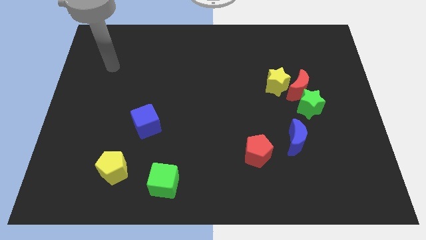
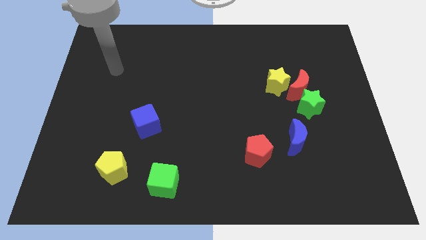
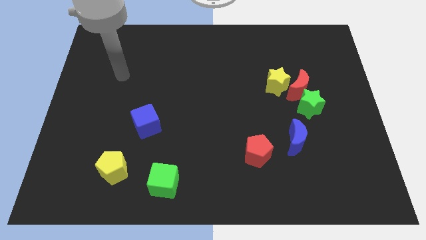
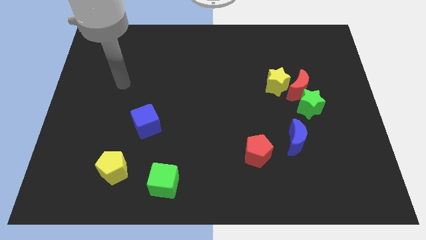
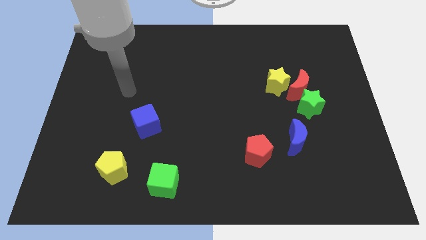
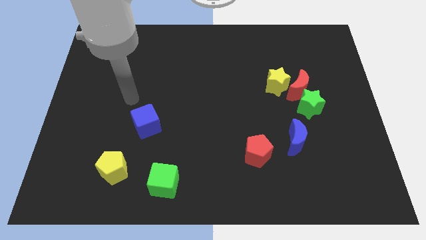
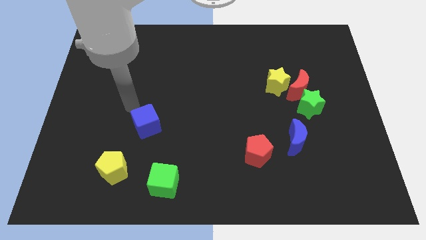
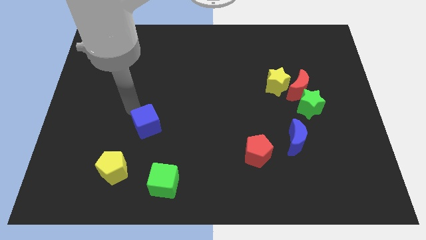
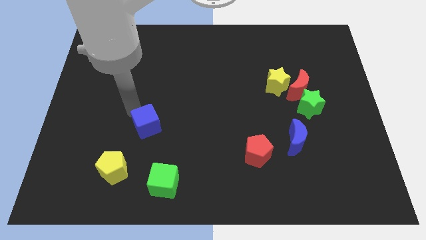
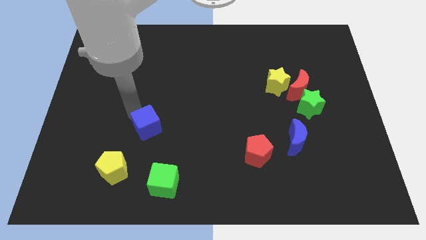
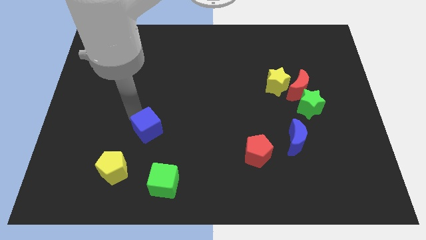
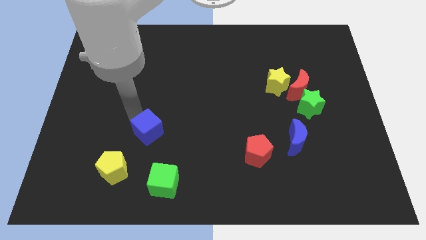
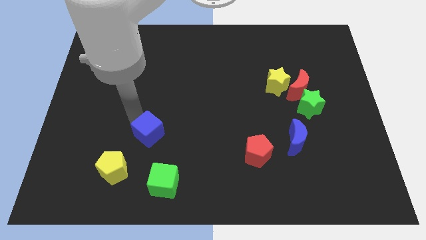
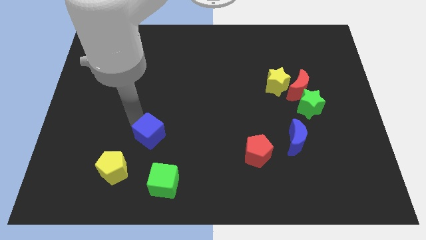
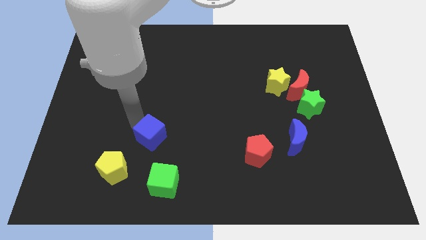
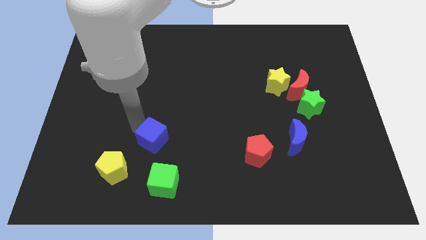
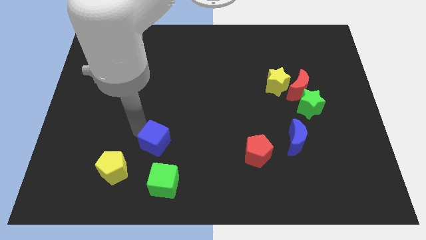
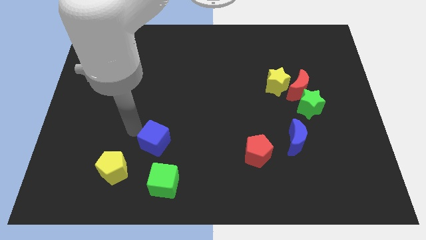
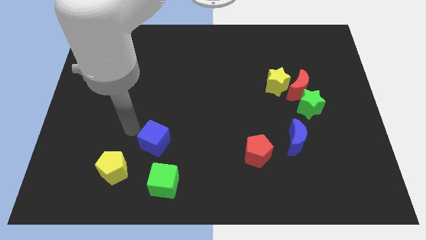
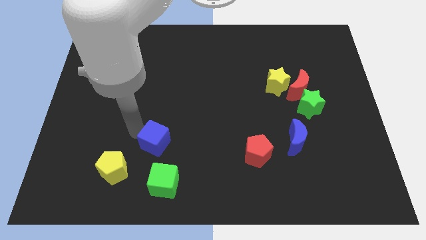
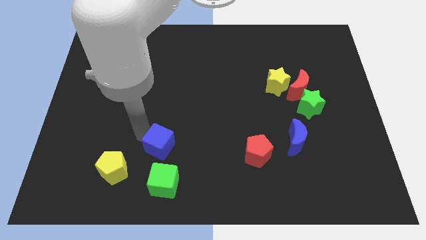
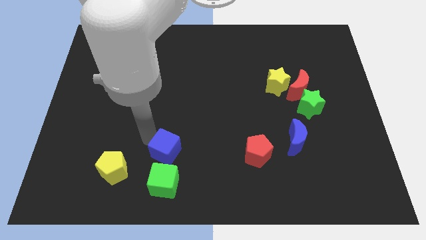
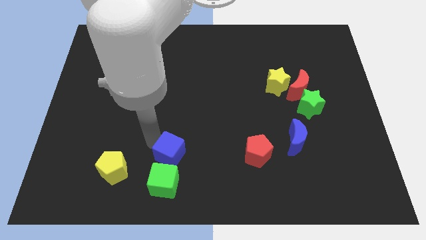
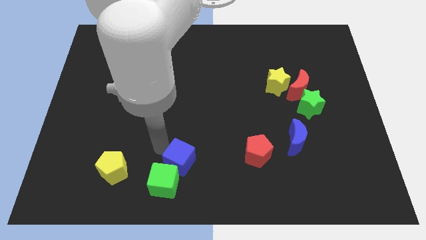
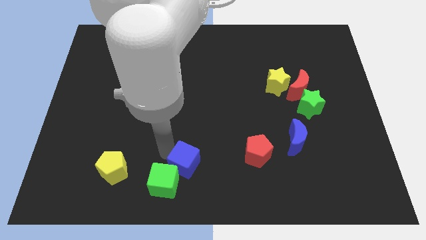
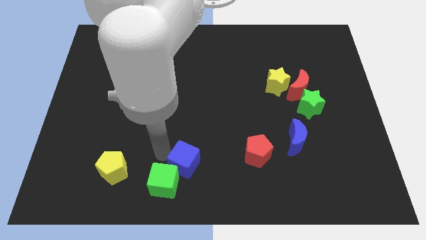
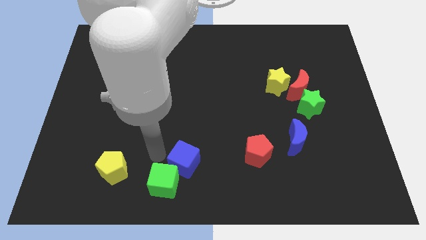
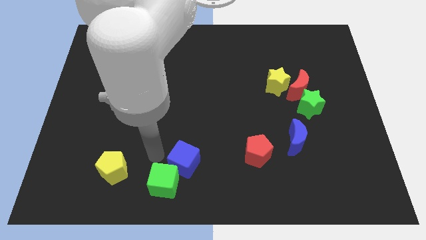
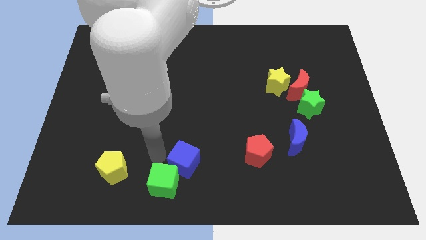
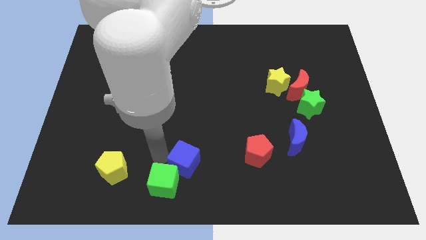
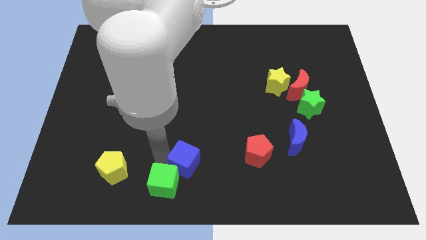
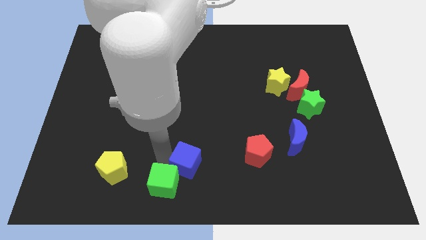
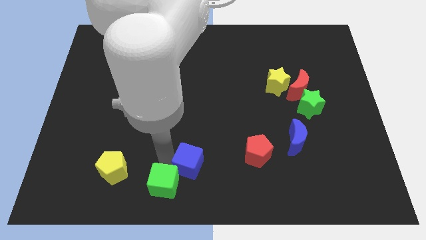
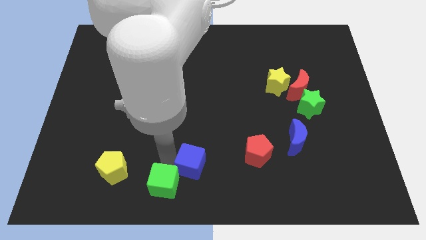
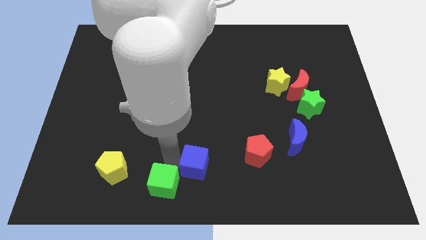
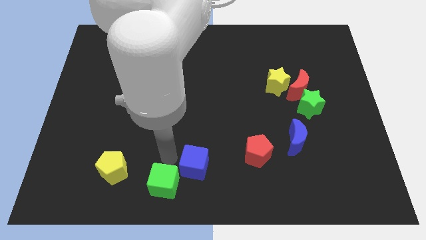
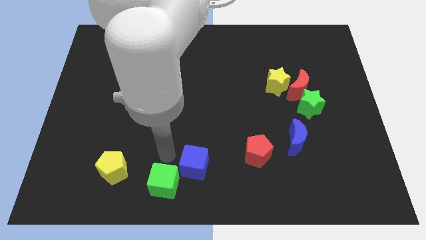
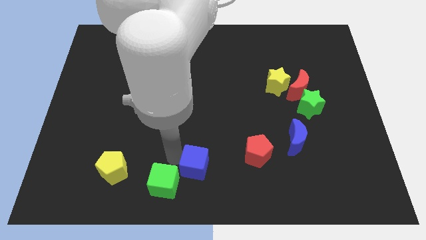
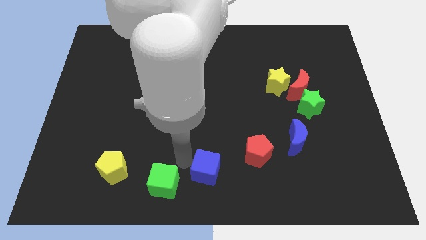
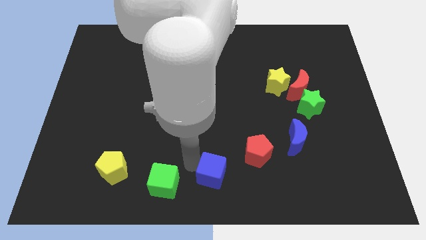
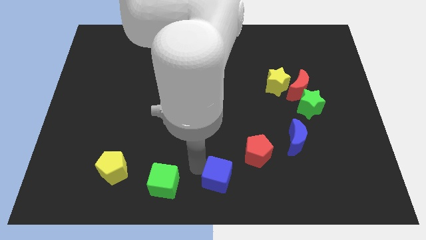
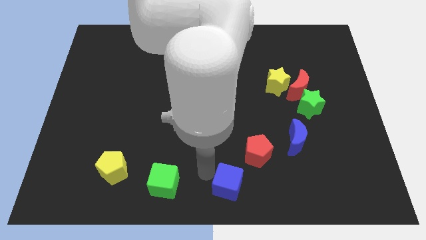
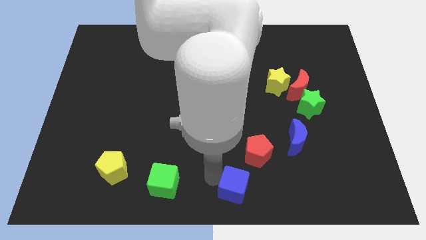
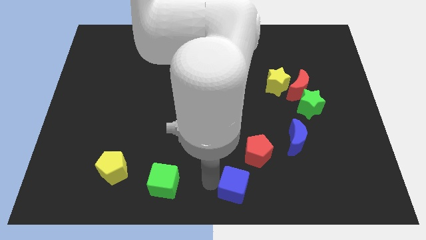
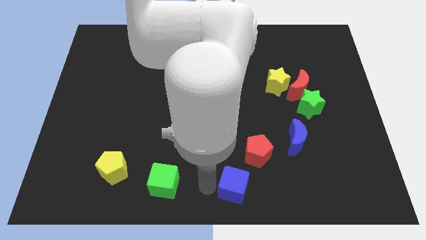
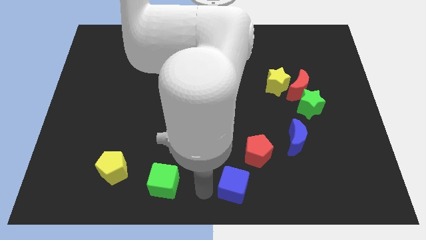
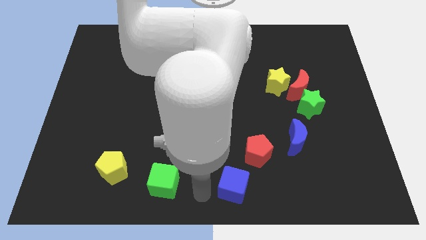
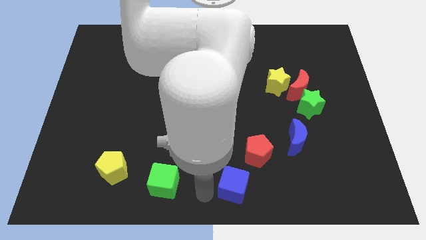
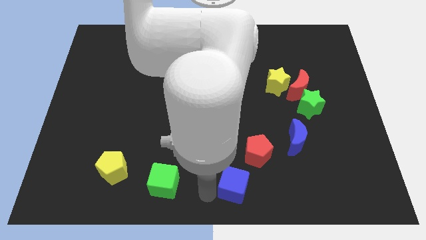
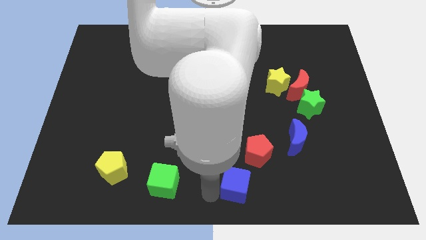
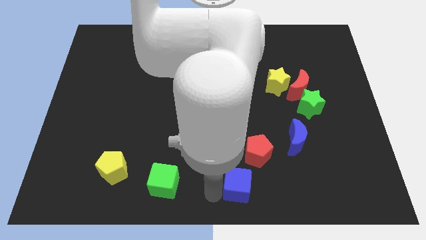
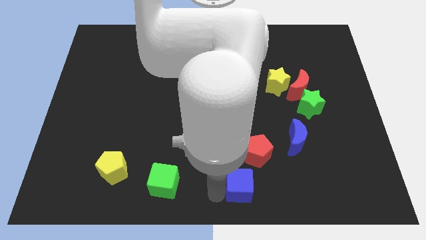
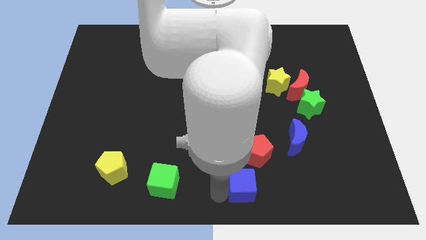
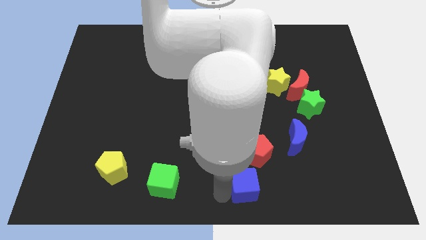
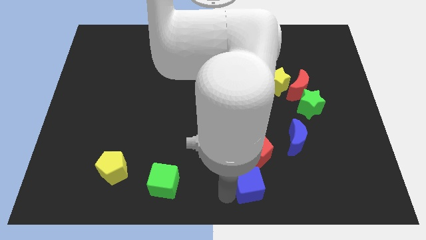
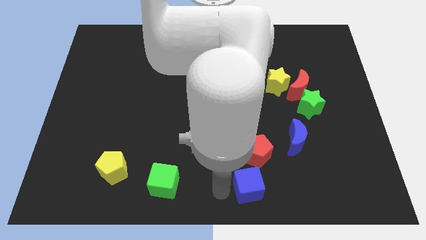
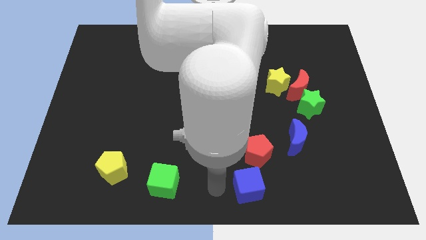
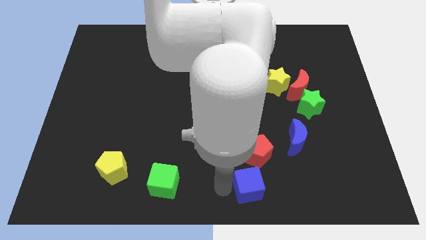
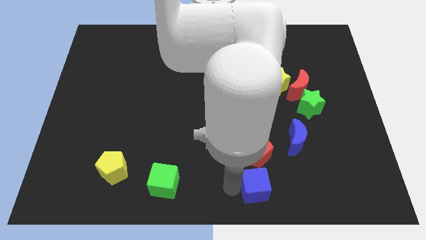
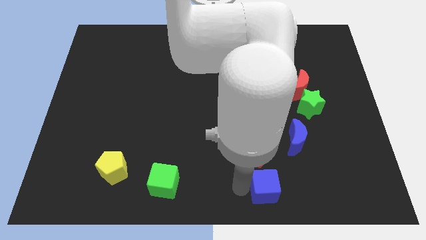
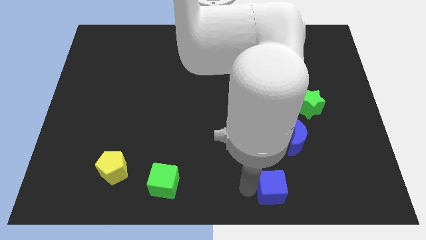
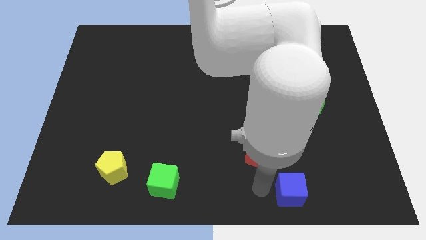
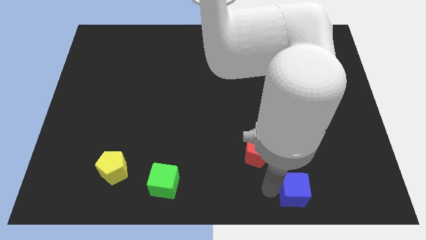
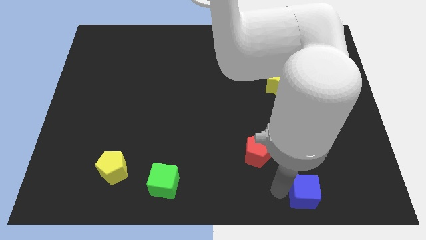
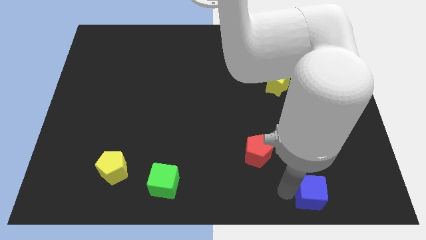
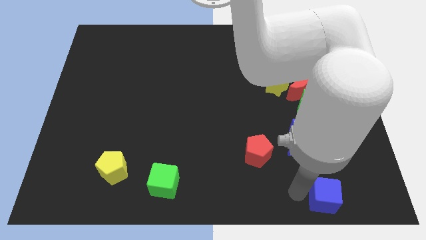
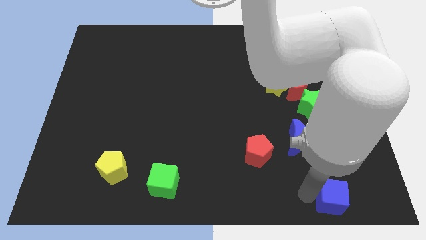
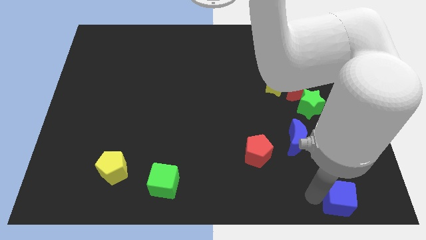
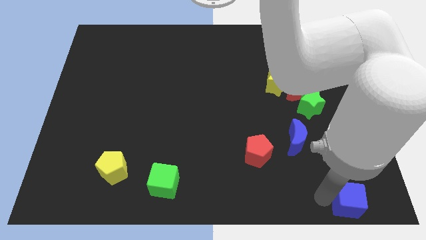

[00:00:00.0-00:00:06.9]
put the blue cube to the bottom right
